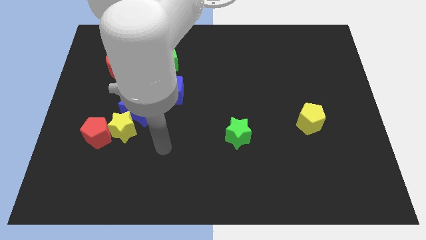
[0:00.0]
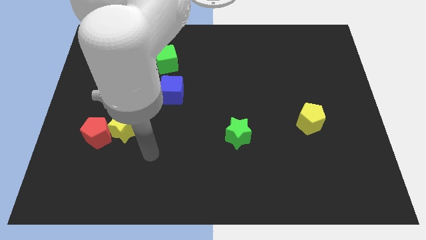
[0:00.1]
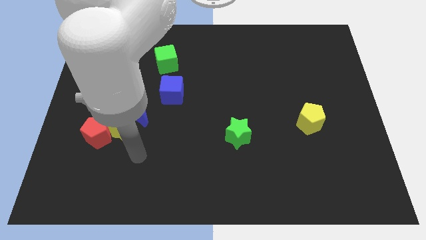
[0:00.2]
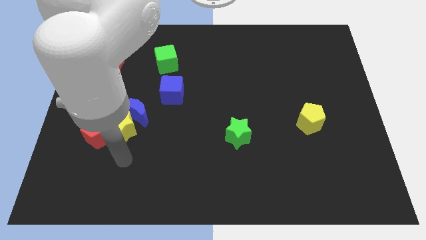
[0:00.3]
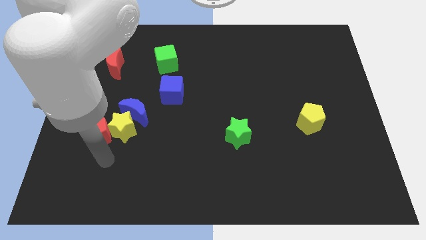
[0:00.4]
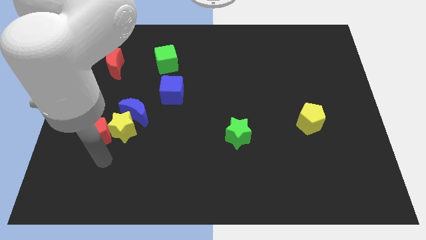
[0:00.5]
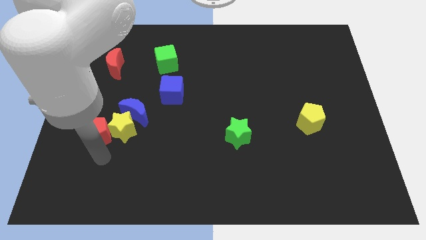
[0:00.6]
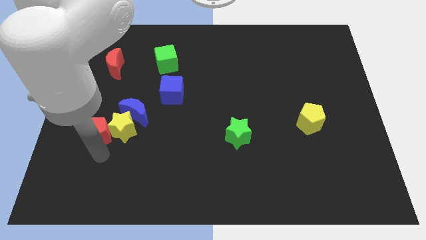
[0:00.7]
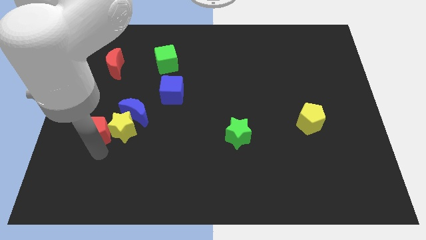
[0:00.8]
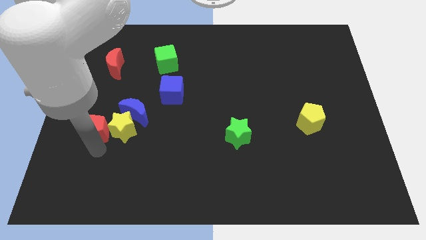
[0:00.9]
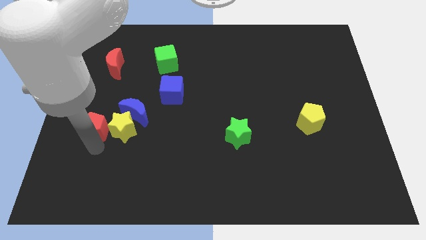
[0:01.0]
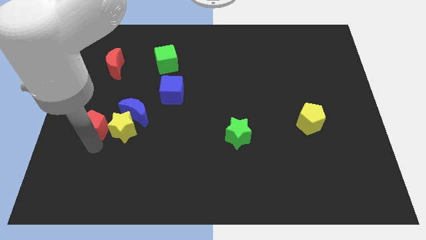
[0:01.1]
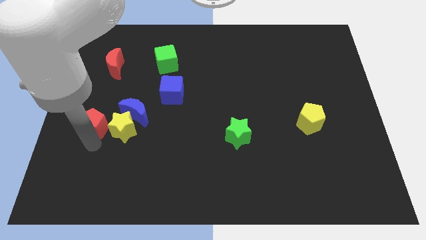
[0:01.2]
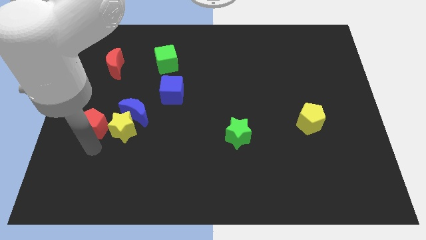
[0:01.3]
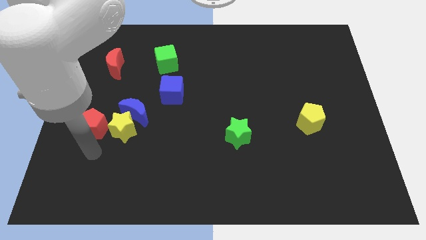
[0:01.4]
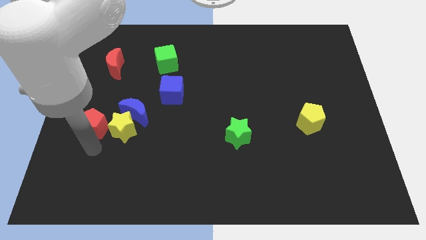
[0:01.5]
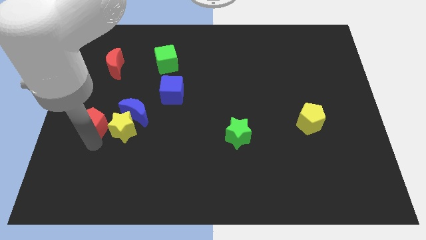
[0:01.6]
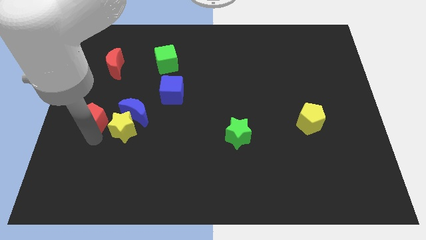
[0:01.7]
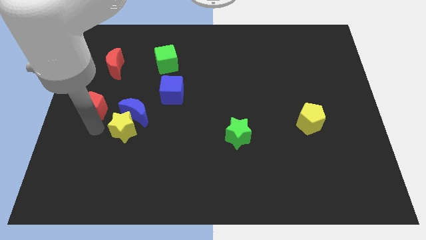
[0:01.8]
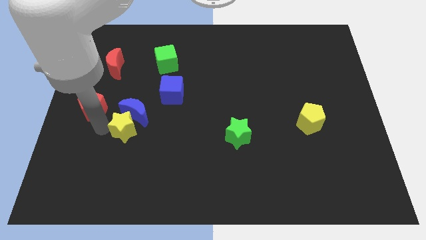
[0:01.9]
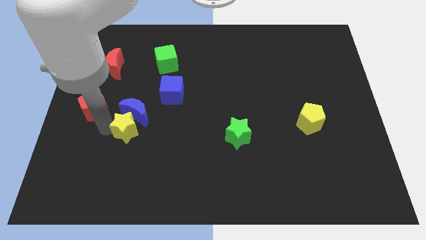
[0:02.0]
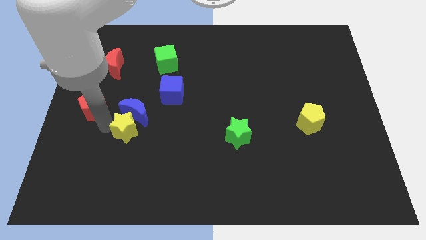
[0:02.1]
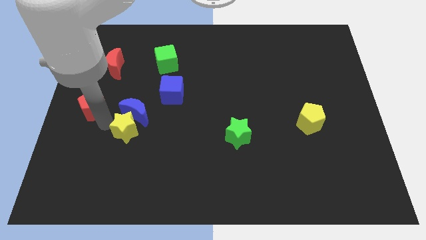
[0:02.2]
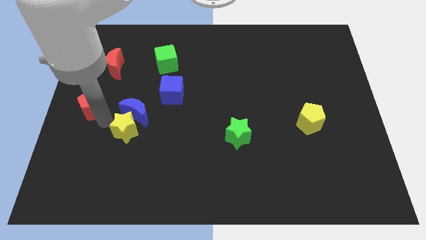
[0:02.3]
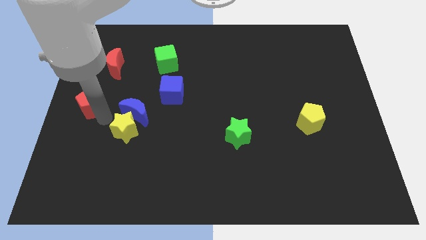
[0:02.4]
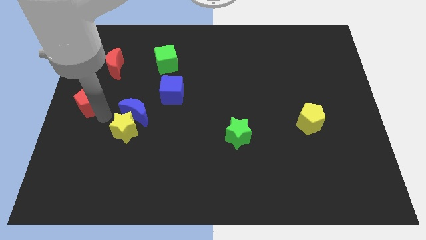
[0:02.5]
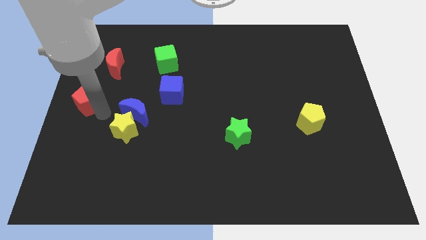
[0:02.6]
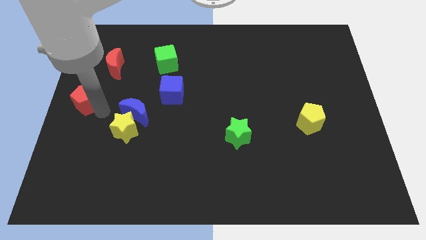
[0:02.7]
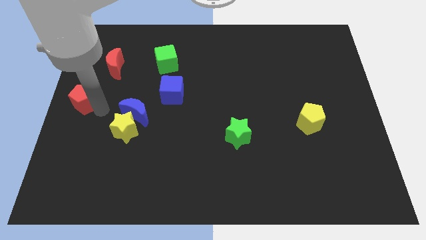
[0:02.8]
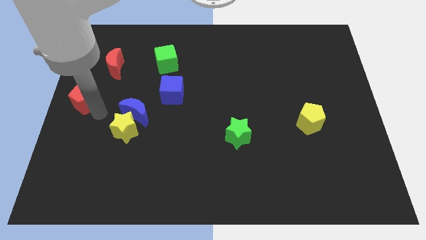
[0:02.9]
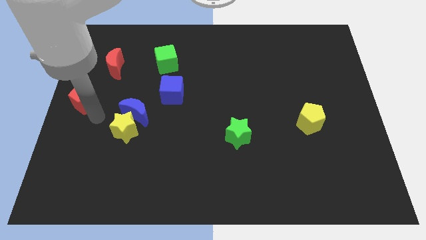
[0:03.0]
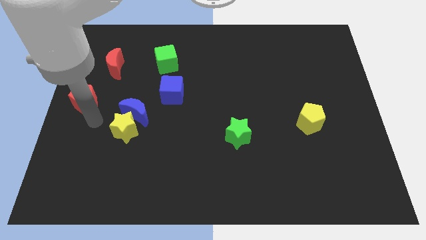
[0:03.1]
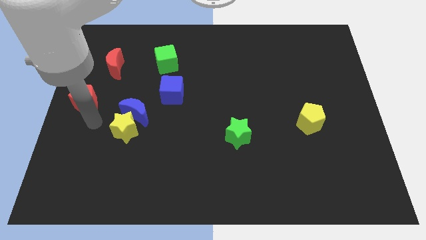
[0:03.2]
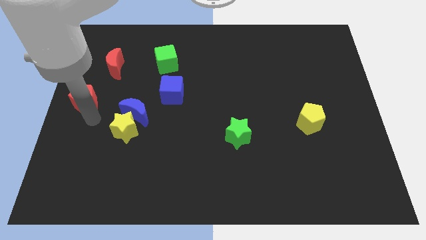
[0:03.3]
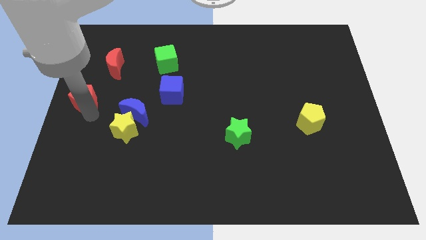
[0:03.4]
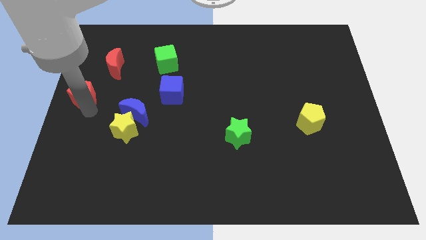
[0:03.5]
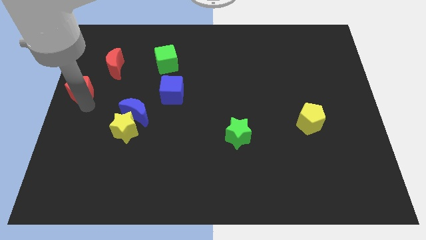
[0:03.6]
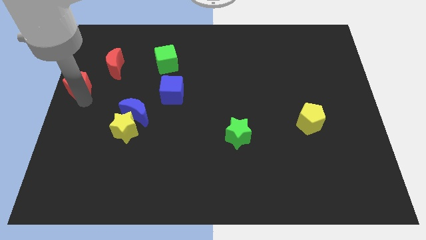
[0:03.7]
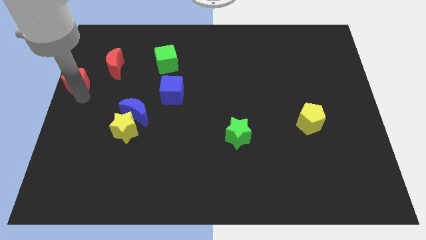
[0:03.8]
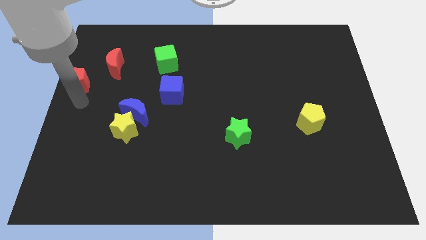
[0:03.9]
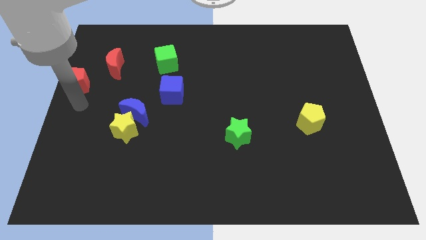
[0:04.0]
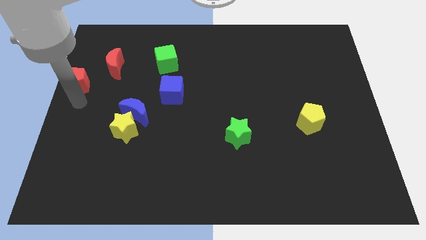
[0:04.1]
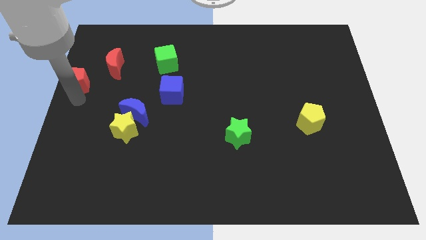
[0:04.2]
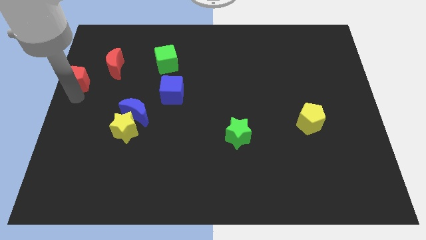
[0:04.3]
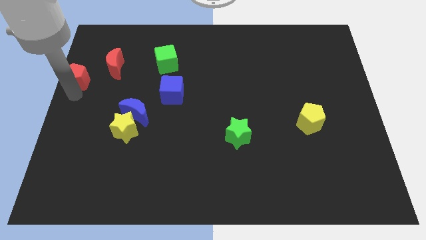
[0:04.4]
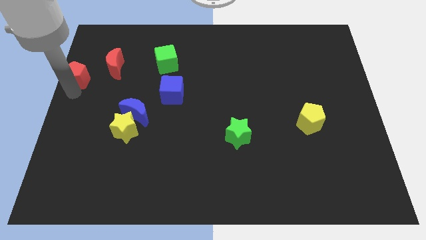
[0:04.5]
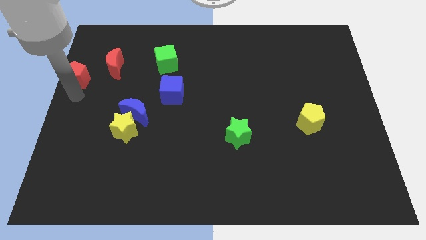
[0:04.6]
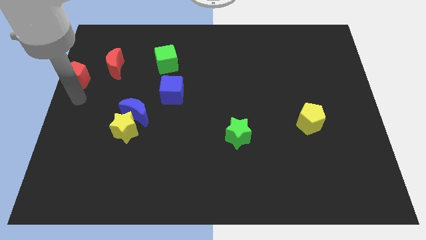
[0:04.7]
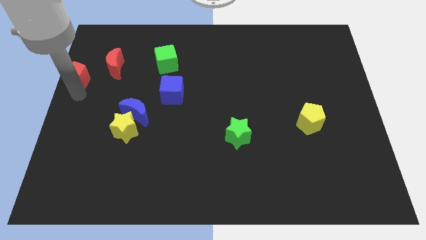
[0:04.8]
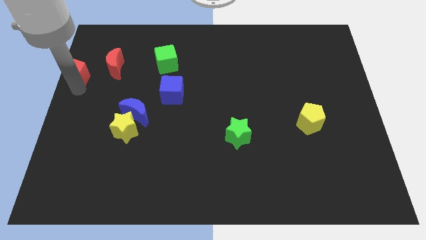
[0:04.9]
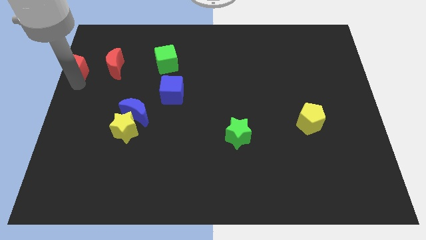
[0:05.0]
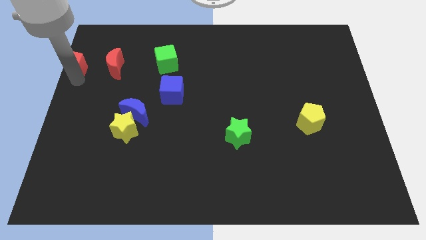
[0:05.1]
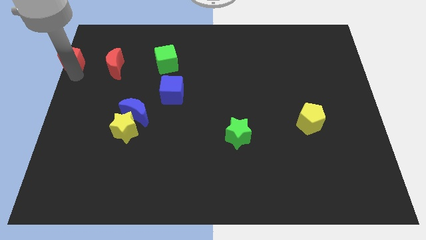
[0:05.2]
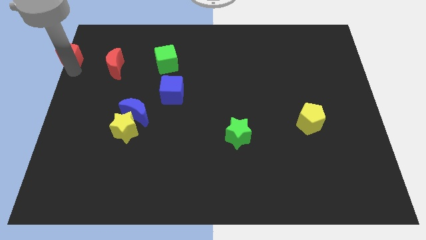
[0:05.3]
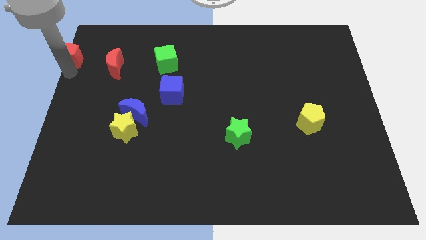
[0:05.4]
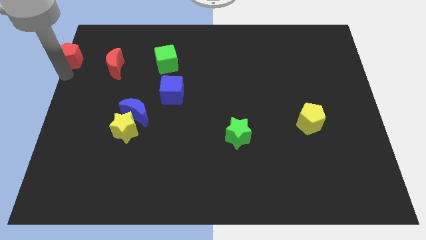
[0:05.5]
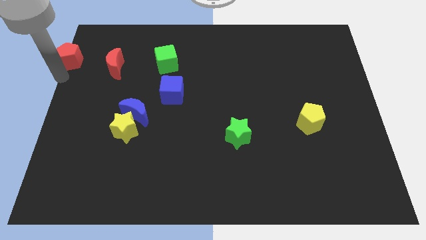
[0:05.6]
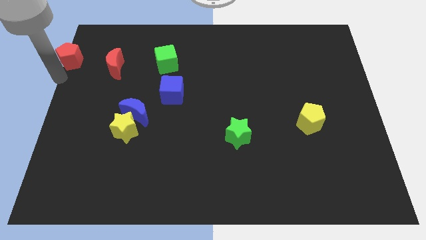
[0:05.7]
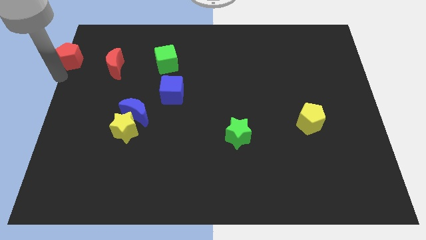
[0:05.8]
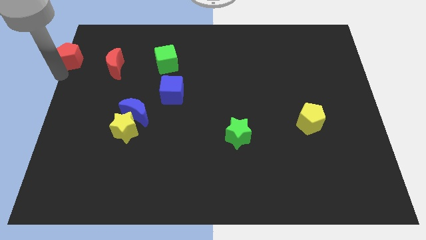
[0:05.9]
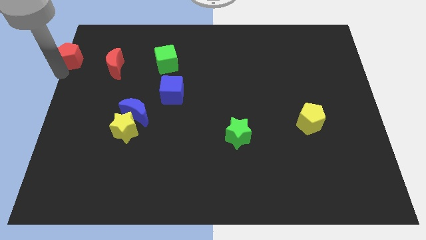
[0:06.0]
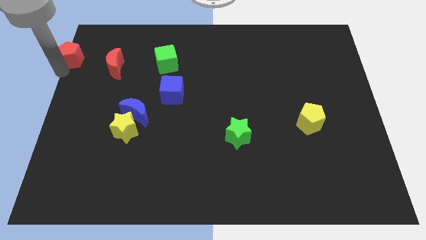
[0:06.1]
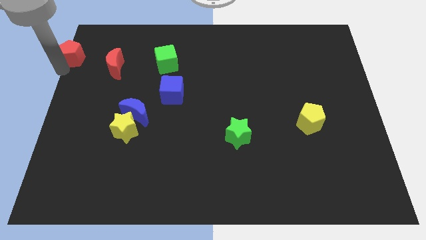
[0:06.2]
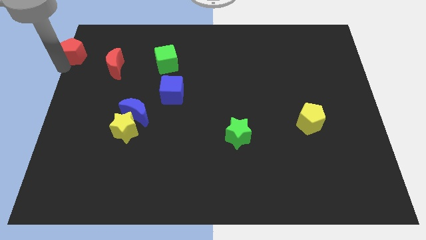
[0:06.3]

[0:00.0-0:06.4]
put the red pentagon to the upper left corner
